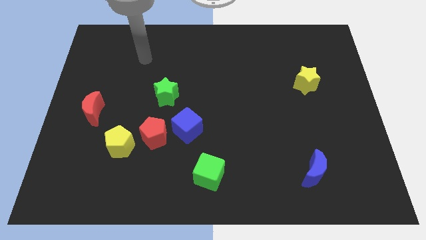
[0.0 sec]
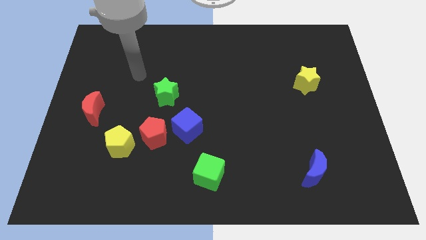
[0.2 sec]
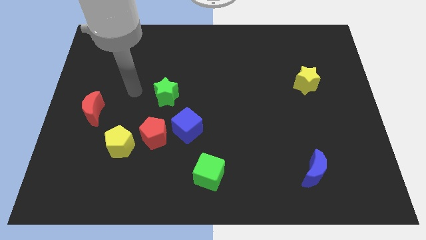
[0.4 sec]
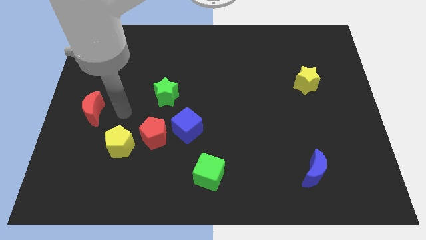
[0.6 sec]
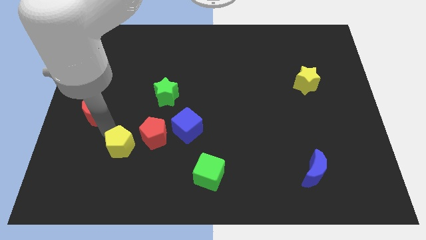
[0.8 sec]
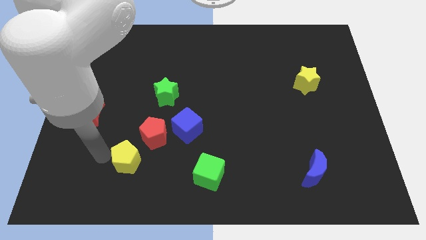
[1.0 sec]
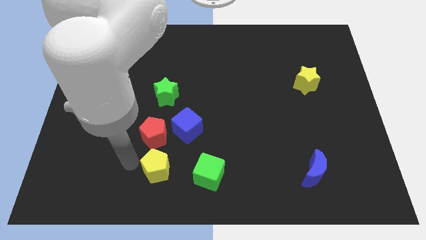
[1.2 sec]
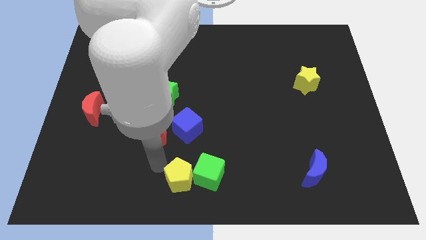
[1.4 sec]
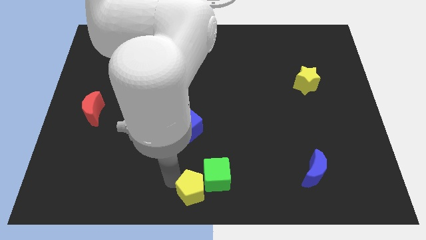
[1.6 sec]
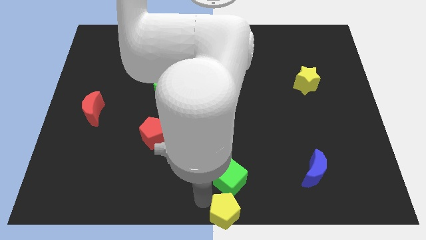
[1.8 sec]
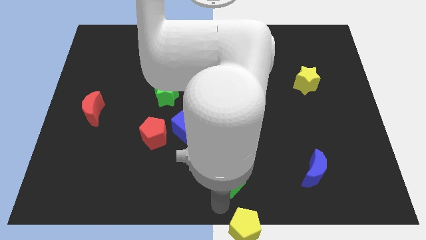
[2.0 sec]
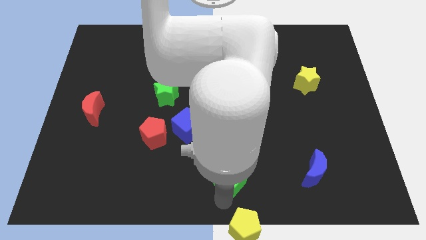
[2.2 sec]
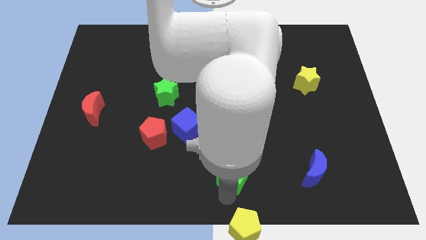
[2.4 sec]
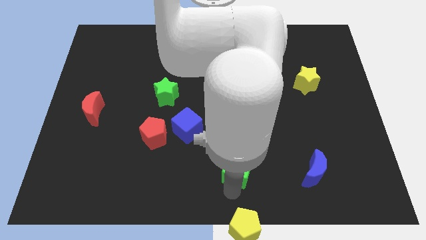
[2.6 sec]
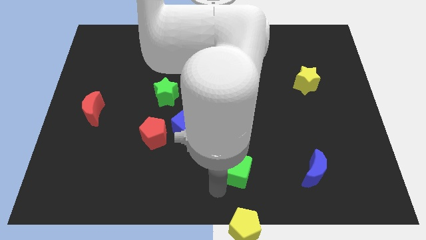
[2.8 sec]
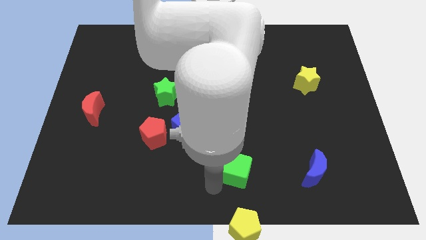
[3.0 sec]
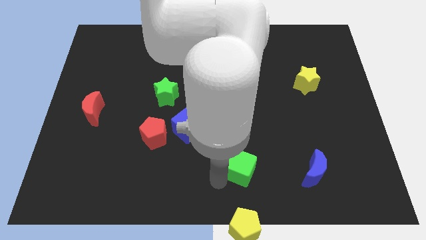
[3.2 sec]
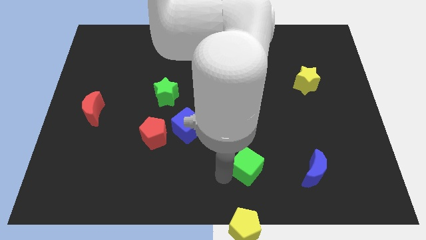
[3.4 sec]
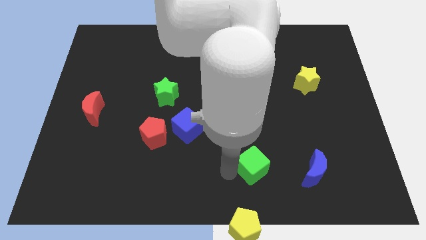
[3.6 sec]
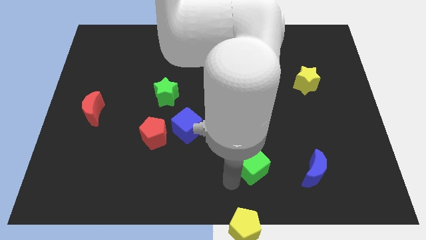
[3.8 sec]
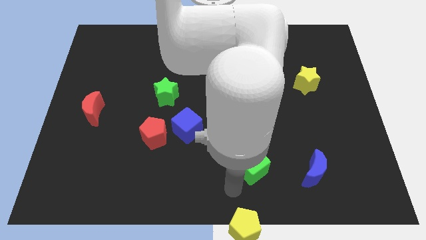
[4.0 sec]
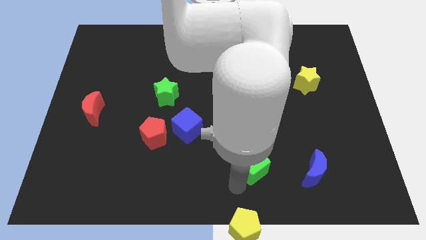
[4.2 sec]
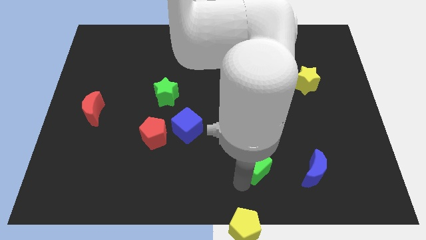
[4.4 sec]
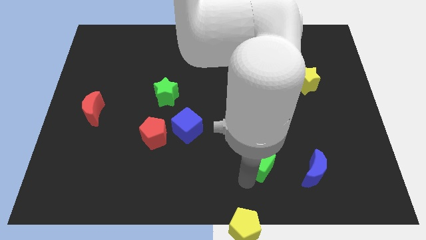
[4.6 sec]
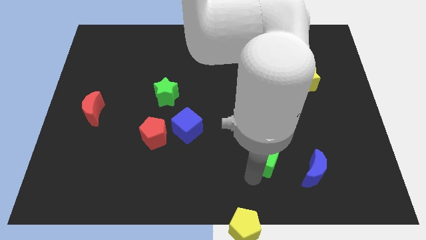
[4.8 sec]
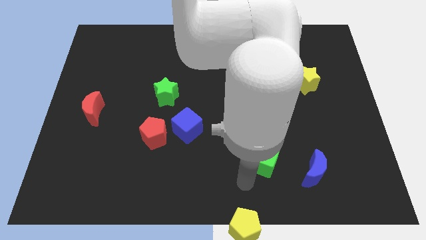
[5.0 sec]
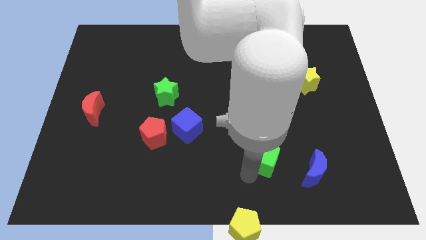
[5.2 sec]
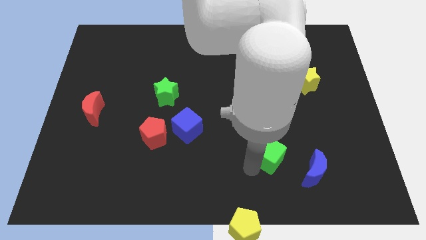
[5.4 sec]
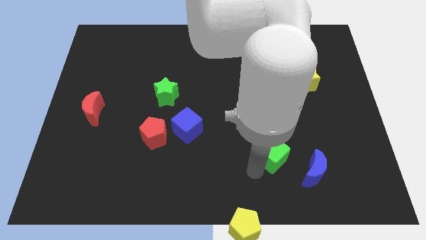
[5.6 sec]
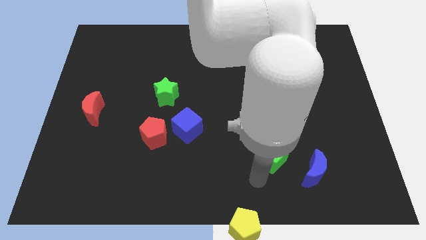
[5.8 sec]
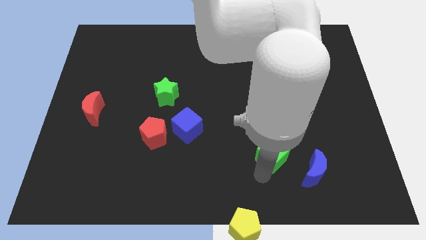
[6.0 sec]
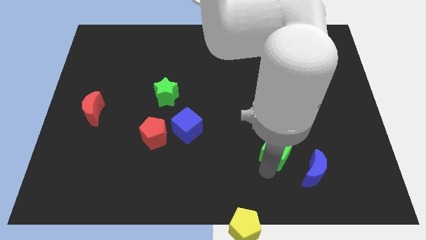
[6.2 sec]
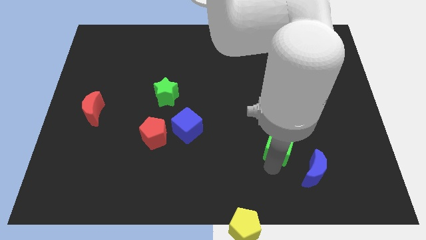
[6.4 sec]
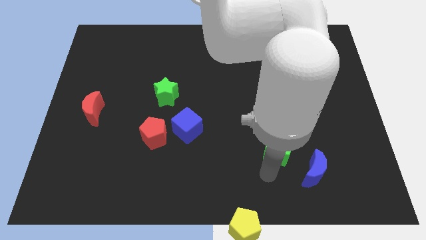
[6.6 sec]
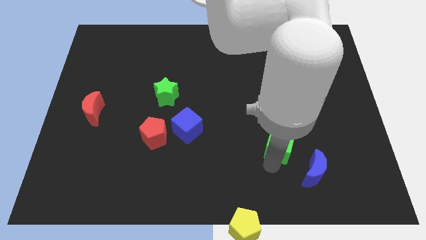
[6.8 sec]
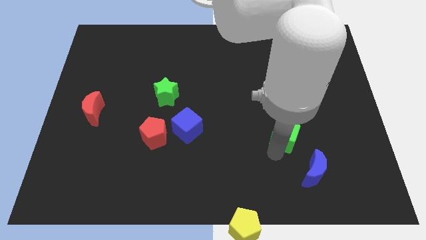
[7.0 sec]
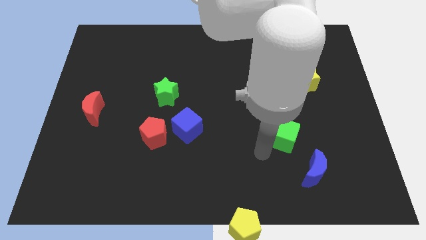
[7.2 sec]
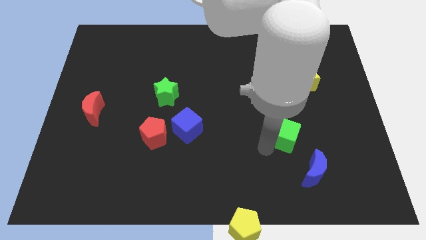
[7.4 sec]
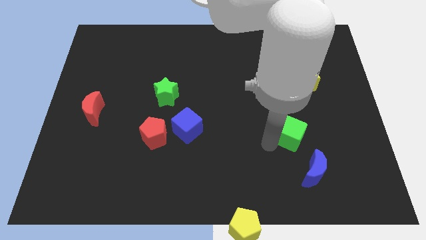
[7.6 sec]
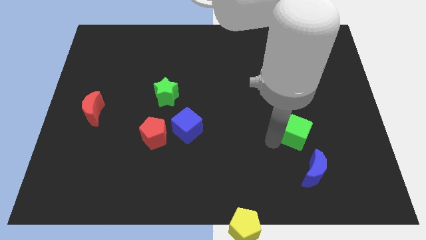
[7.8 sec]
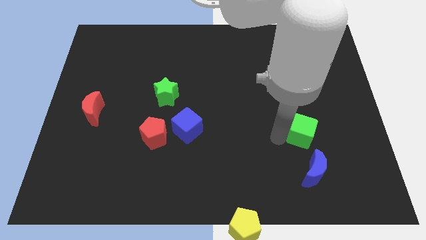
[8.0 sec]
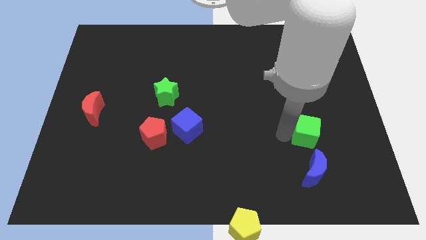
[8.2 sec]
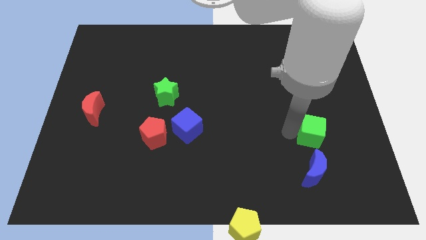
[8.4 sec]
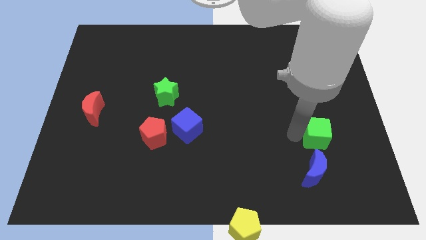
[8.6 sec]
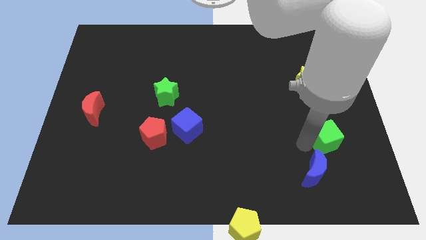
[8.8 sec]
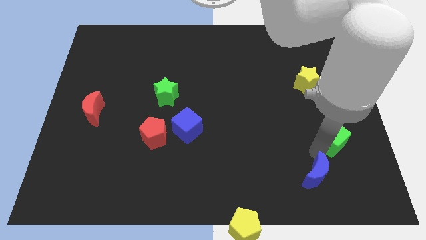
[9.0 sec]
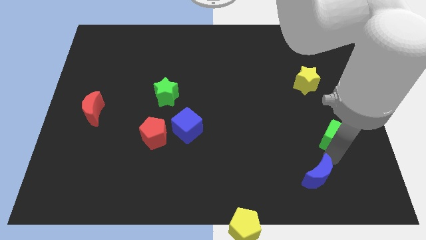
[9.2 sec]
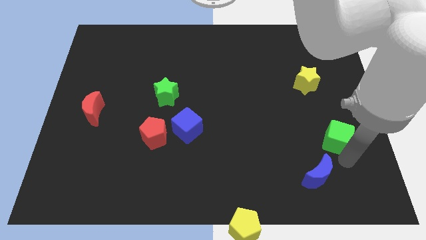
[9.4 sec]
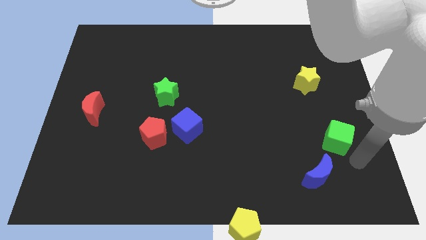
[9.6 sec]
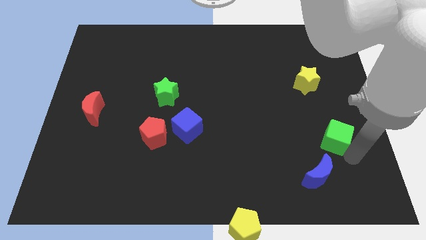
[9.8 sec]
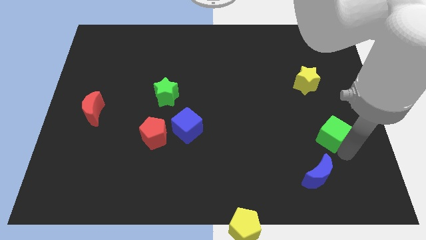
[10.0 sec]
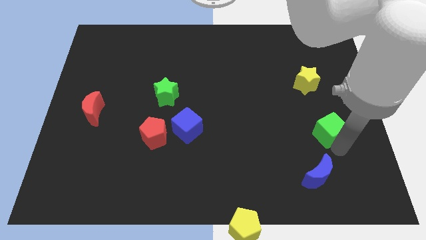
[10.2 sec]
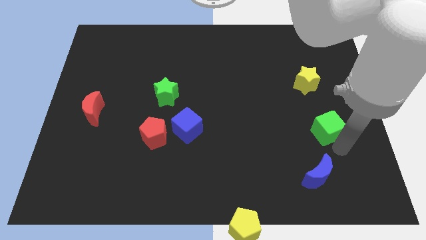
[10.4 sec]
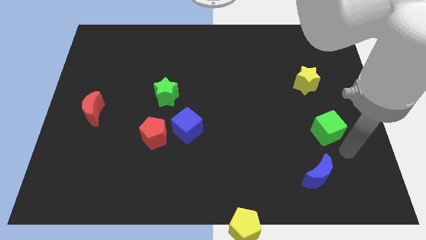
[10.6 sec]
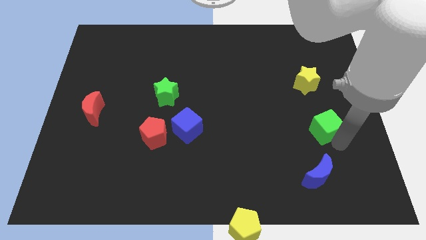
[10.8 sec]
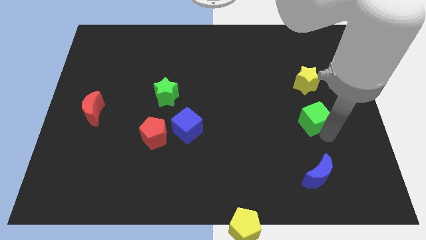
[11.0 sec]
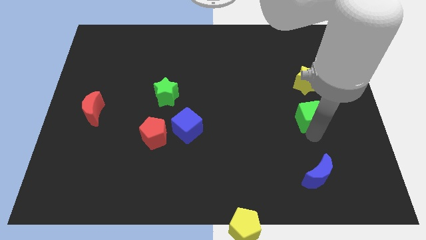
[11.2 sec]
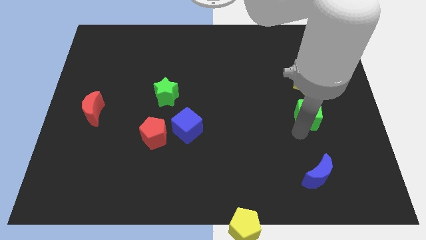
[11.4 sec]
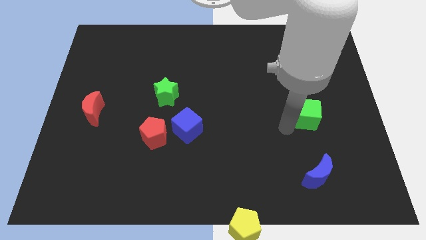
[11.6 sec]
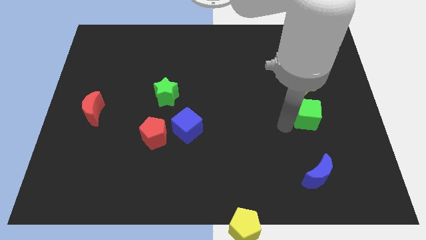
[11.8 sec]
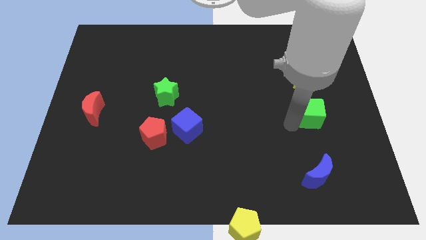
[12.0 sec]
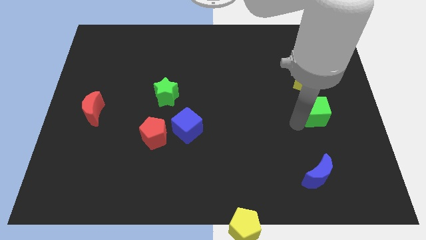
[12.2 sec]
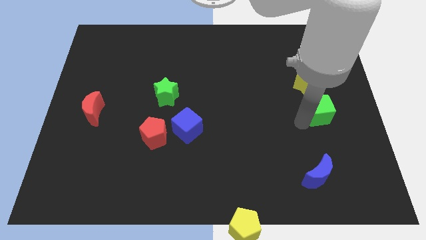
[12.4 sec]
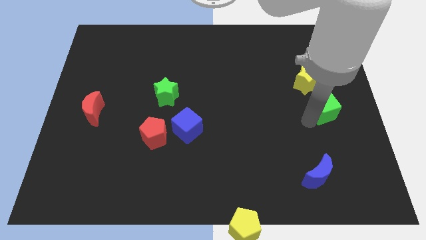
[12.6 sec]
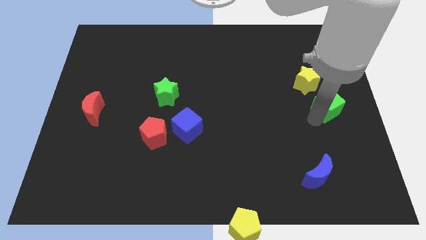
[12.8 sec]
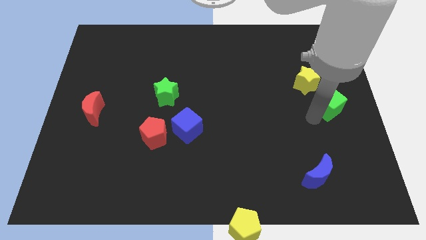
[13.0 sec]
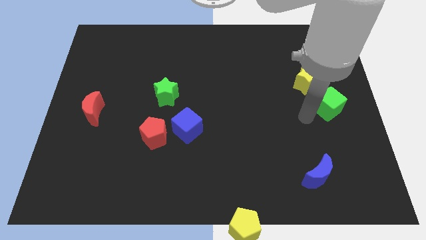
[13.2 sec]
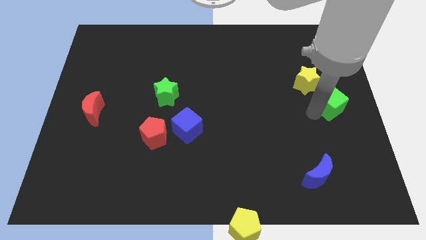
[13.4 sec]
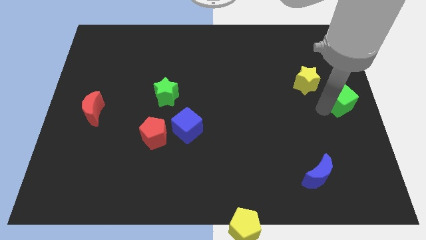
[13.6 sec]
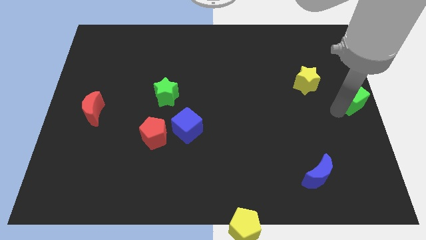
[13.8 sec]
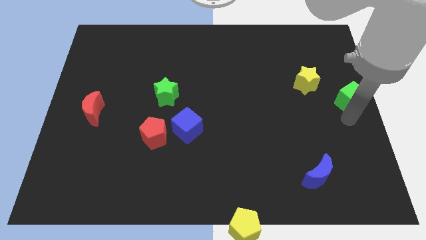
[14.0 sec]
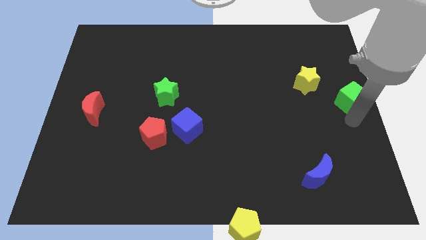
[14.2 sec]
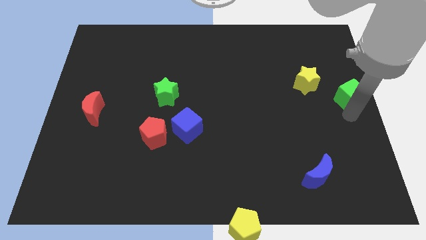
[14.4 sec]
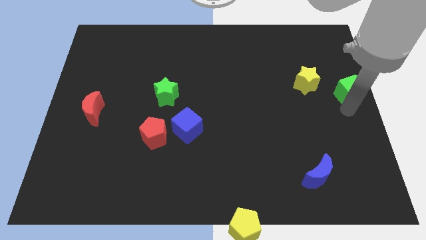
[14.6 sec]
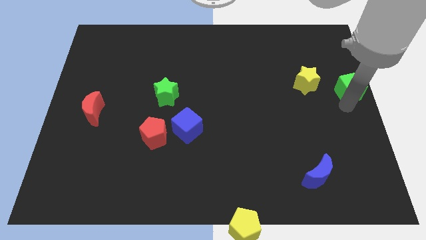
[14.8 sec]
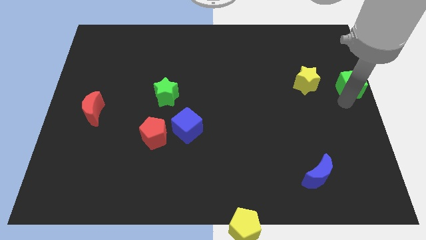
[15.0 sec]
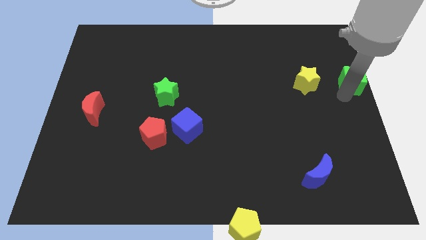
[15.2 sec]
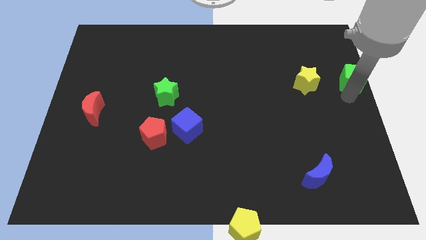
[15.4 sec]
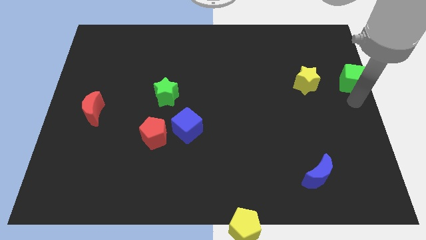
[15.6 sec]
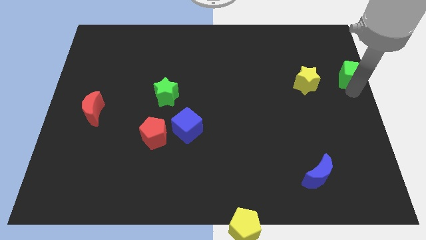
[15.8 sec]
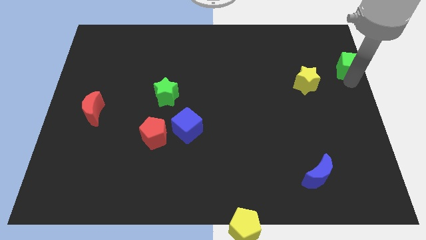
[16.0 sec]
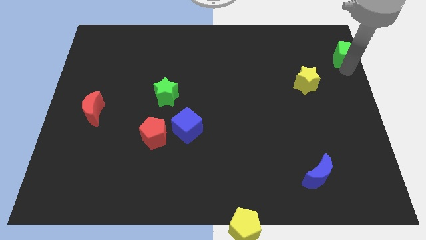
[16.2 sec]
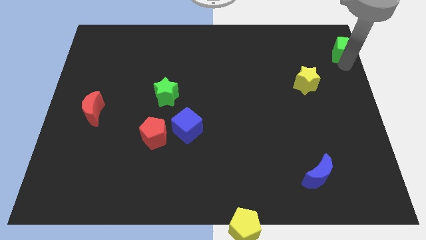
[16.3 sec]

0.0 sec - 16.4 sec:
put the green cube to the top right of the board
